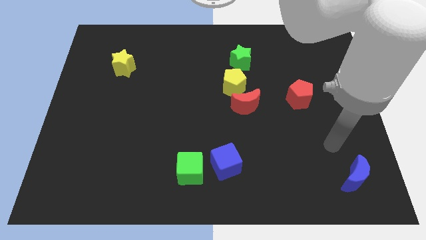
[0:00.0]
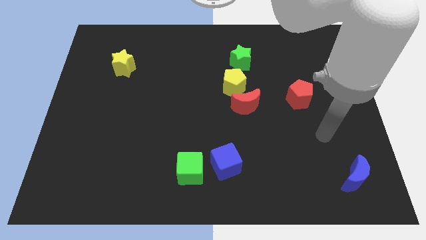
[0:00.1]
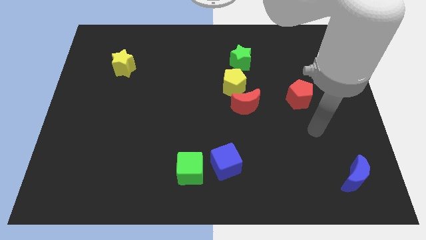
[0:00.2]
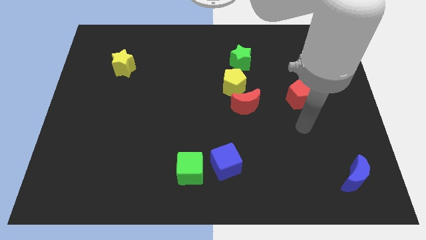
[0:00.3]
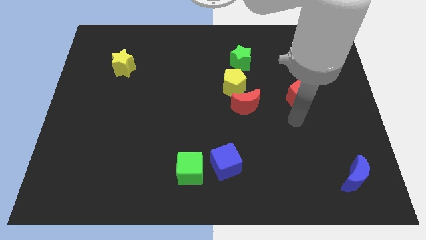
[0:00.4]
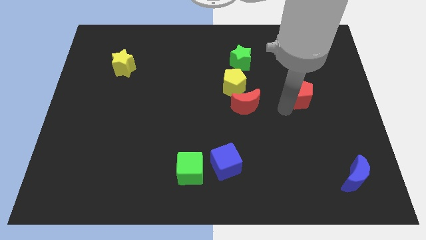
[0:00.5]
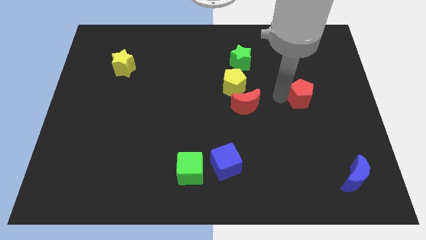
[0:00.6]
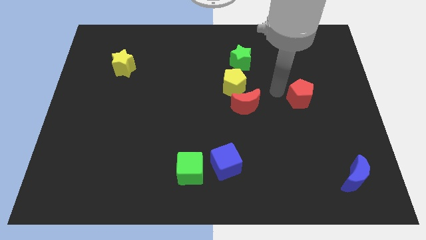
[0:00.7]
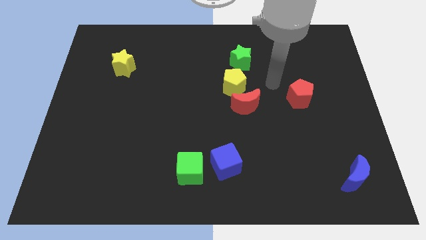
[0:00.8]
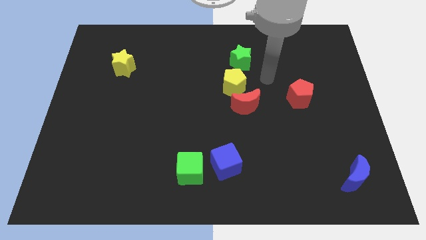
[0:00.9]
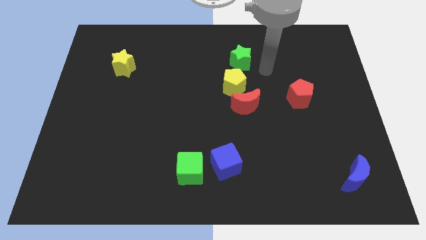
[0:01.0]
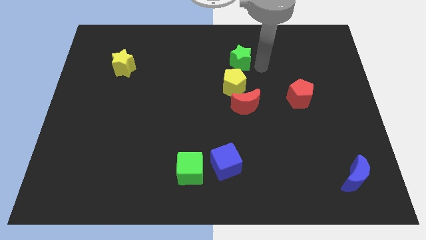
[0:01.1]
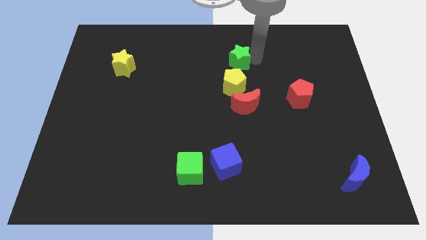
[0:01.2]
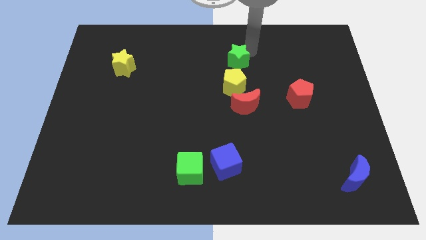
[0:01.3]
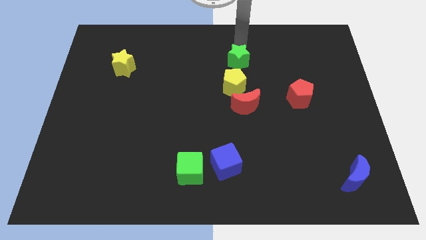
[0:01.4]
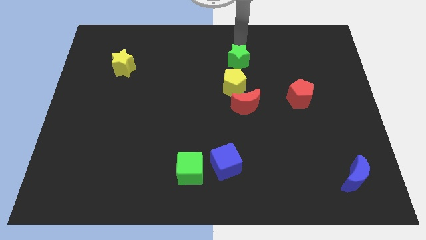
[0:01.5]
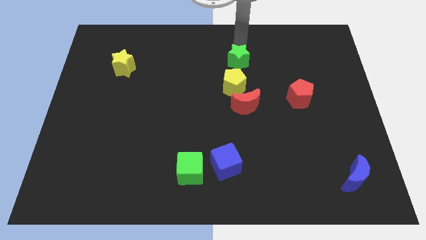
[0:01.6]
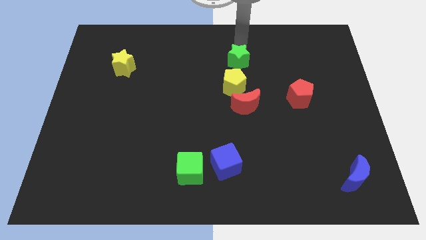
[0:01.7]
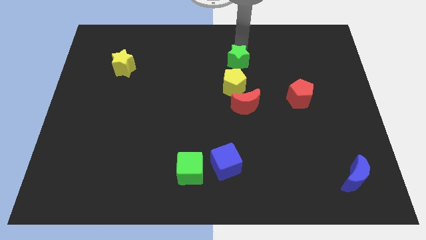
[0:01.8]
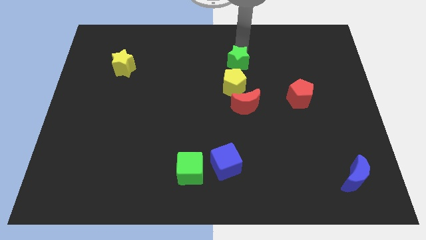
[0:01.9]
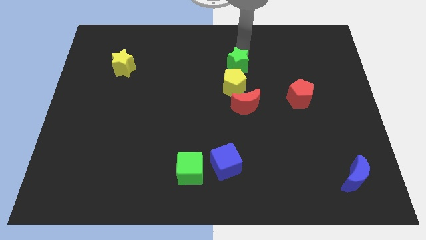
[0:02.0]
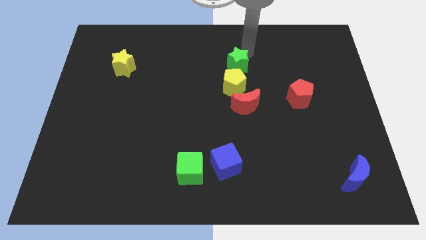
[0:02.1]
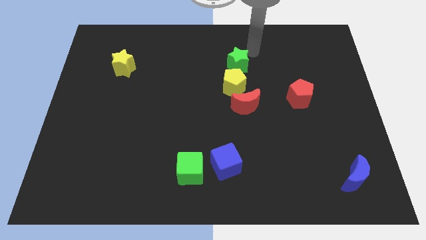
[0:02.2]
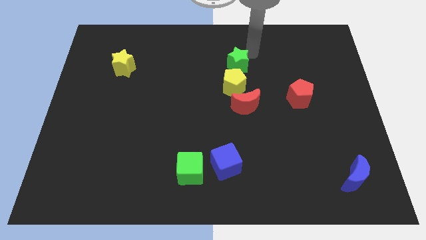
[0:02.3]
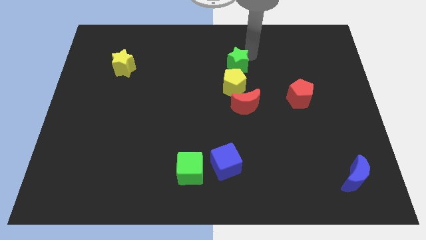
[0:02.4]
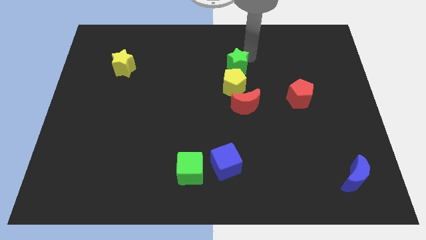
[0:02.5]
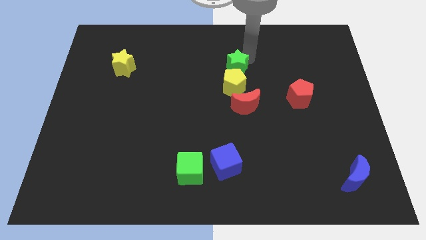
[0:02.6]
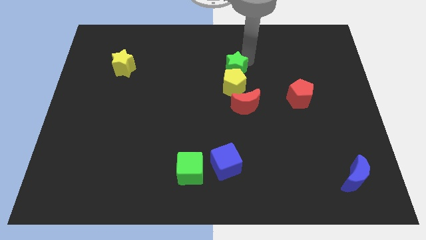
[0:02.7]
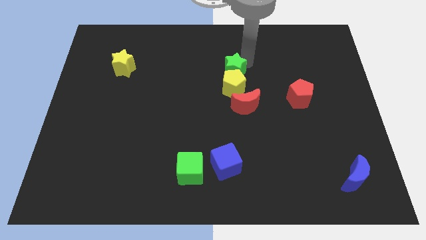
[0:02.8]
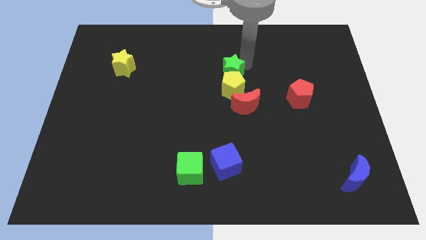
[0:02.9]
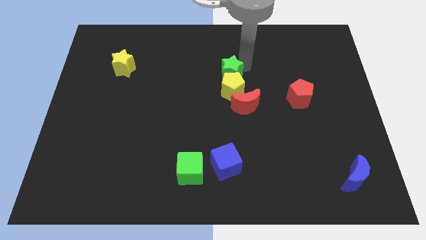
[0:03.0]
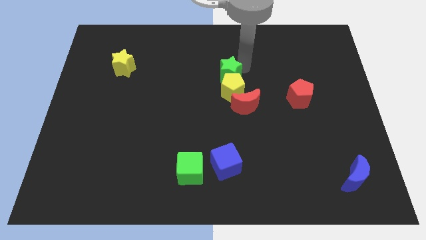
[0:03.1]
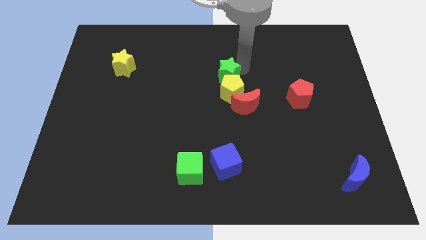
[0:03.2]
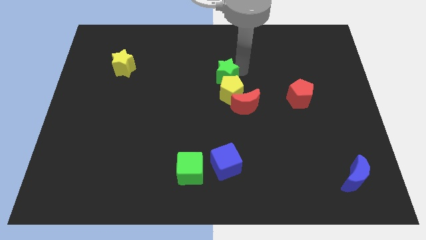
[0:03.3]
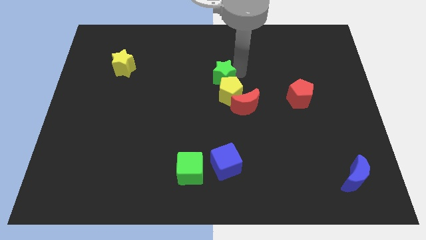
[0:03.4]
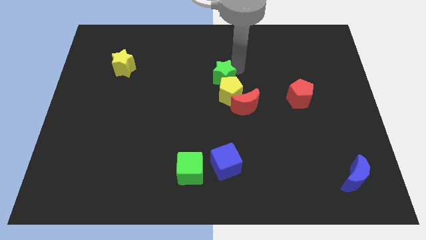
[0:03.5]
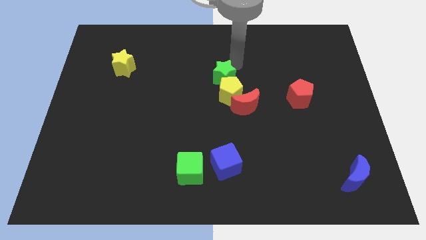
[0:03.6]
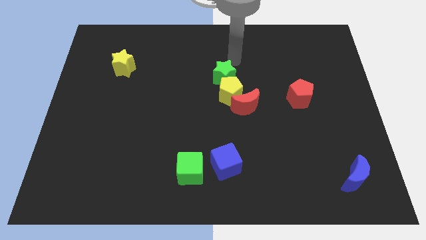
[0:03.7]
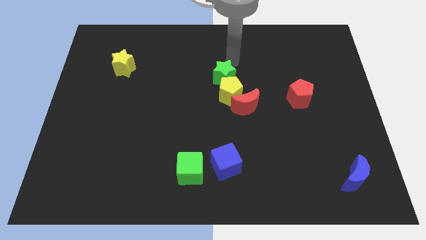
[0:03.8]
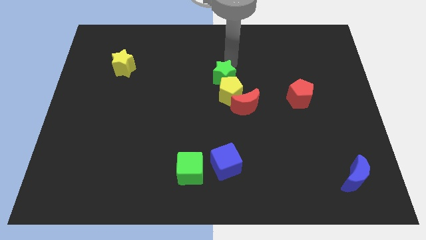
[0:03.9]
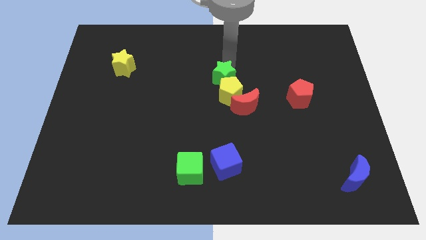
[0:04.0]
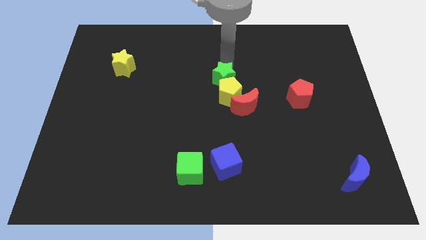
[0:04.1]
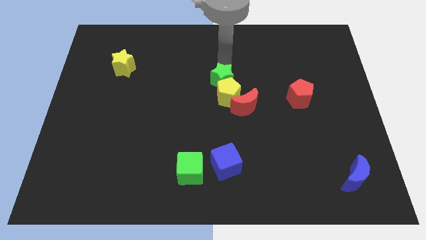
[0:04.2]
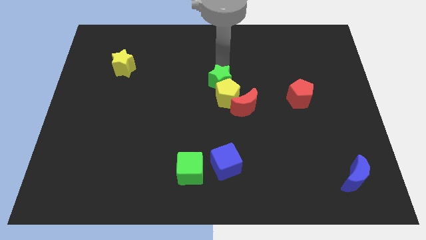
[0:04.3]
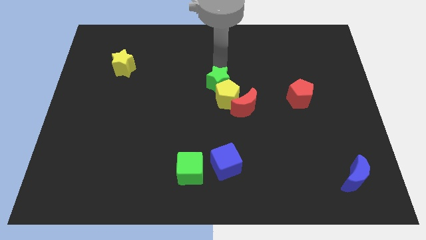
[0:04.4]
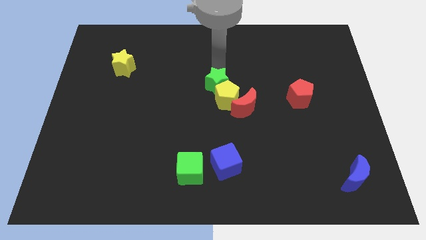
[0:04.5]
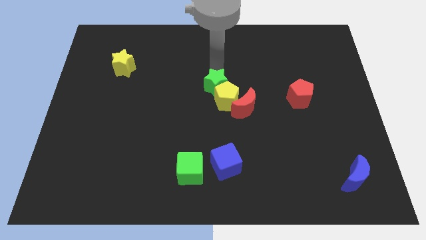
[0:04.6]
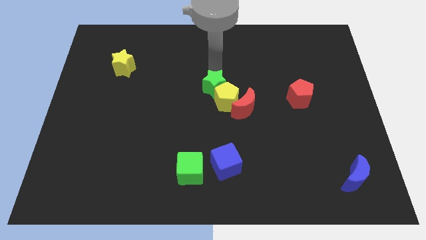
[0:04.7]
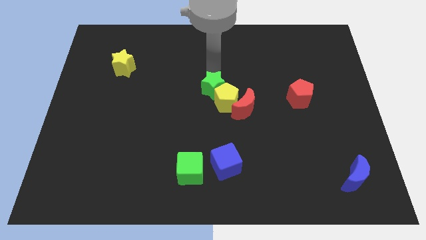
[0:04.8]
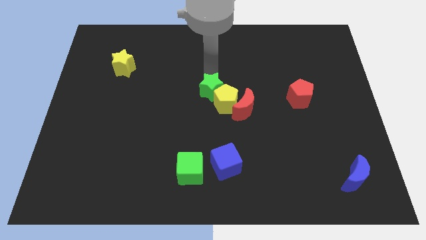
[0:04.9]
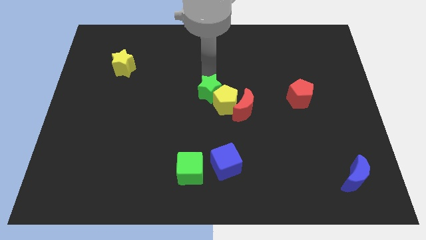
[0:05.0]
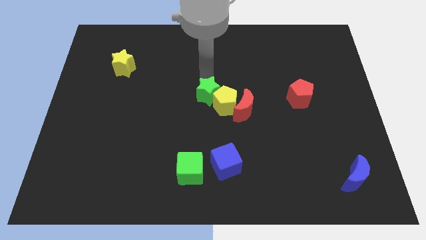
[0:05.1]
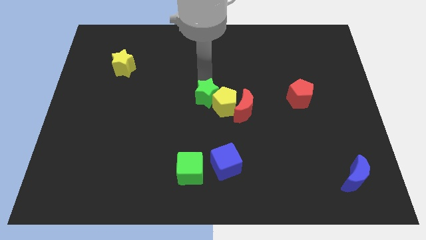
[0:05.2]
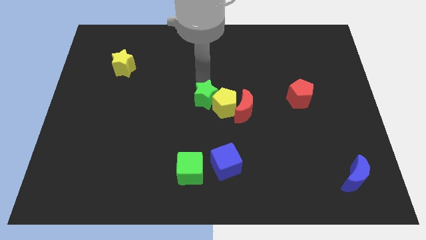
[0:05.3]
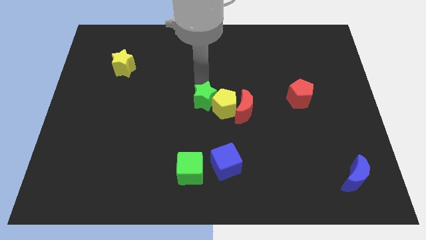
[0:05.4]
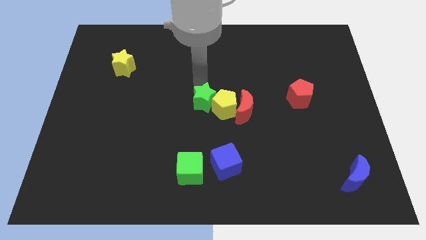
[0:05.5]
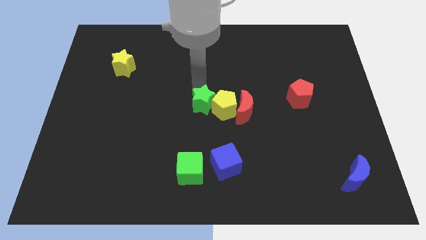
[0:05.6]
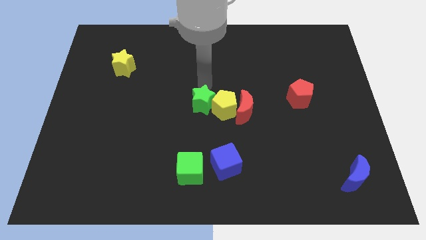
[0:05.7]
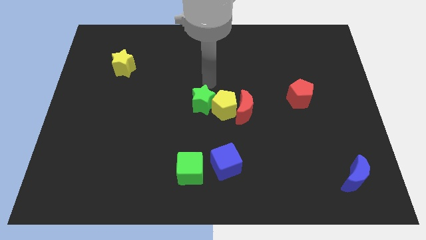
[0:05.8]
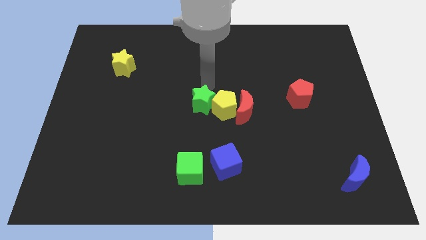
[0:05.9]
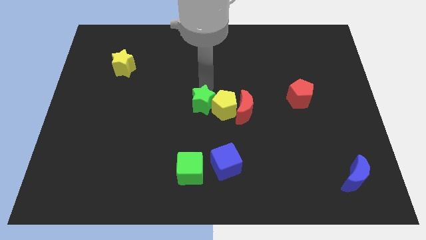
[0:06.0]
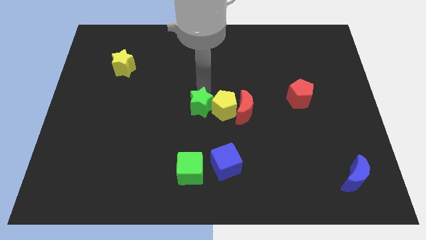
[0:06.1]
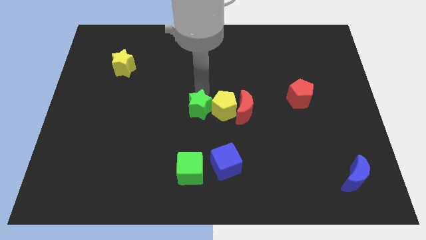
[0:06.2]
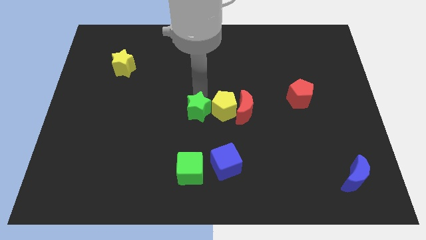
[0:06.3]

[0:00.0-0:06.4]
put the green star above the green cube
